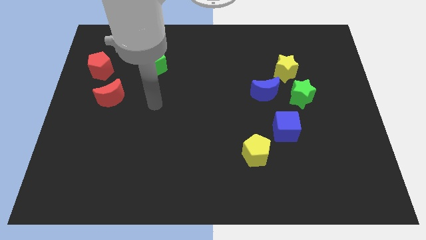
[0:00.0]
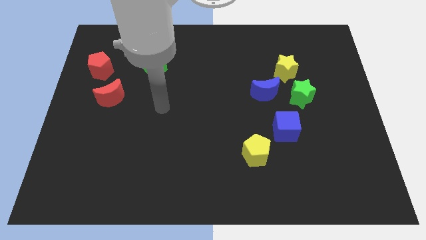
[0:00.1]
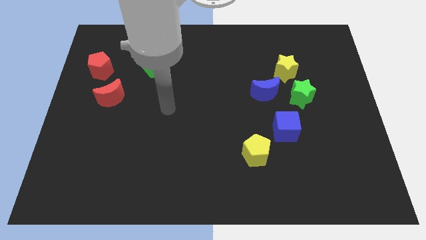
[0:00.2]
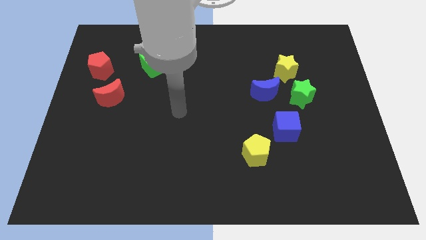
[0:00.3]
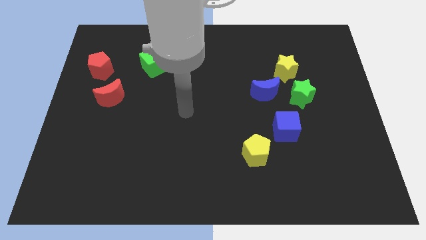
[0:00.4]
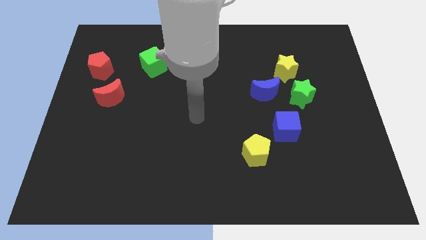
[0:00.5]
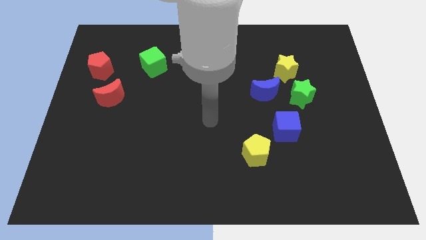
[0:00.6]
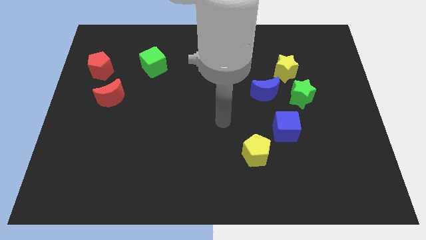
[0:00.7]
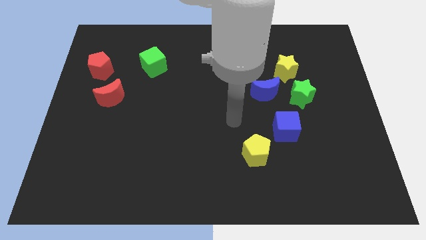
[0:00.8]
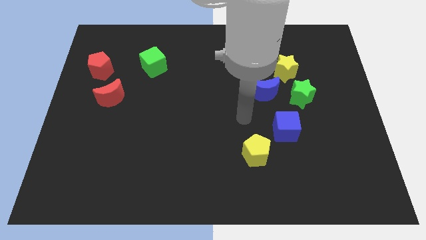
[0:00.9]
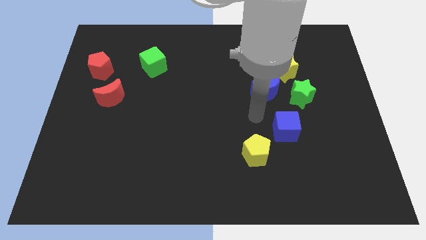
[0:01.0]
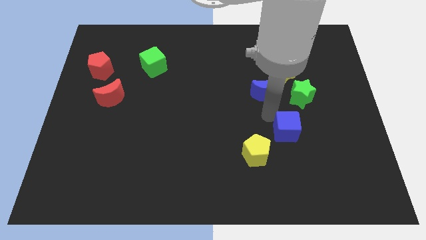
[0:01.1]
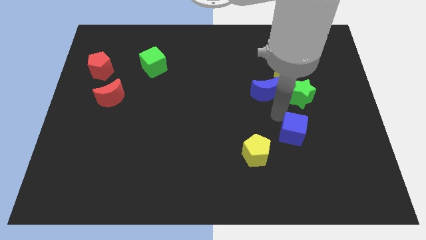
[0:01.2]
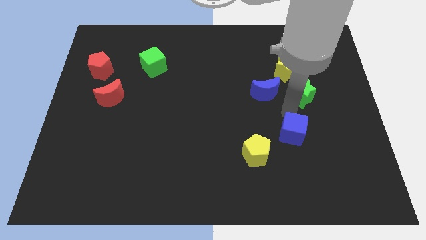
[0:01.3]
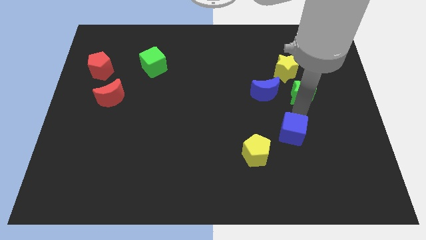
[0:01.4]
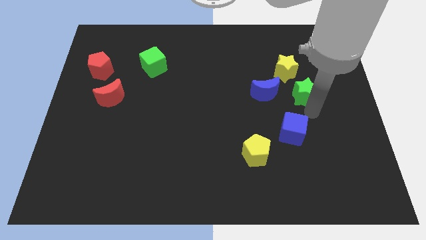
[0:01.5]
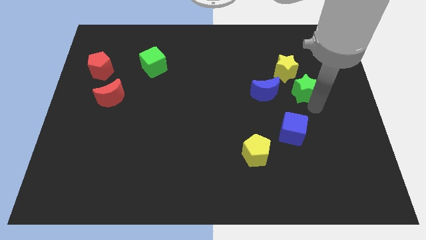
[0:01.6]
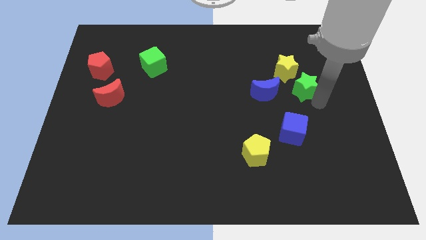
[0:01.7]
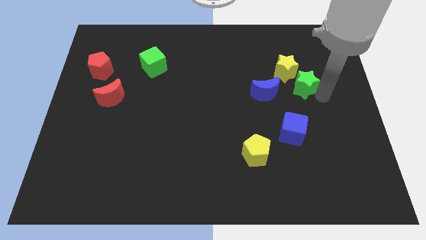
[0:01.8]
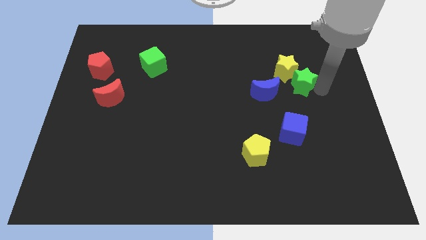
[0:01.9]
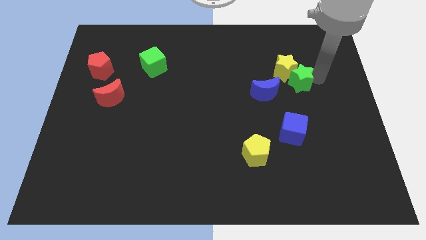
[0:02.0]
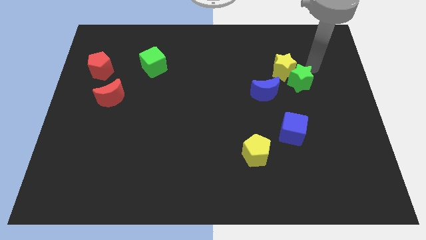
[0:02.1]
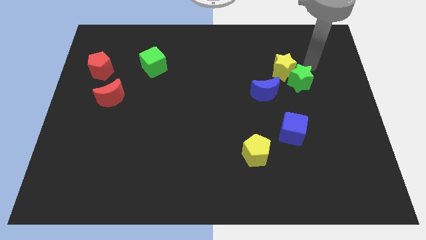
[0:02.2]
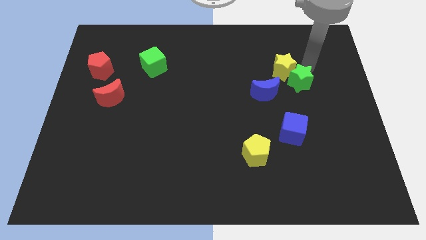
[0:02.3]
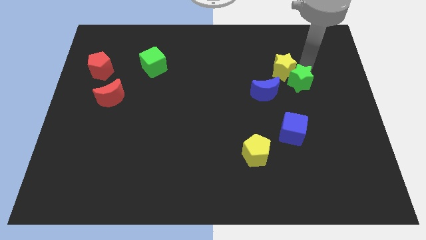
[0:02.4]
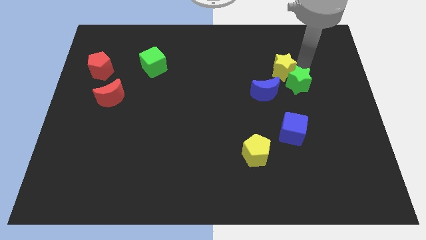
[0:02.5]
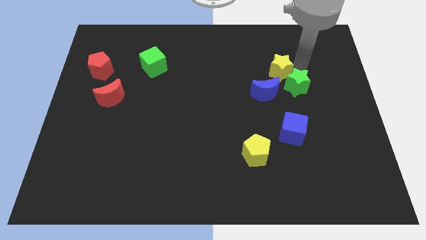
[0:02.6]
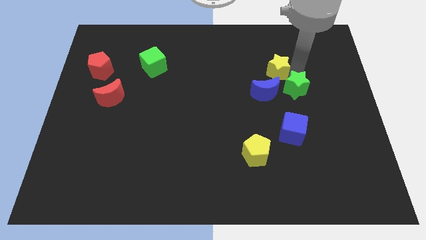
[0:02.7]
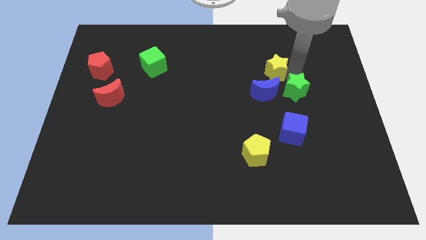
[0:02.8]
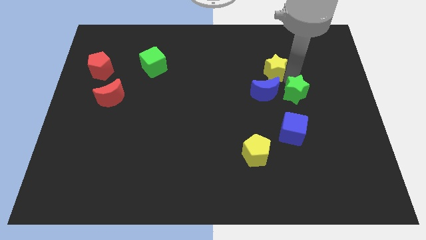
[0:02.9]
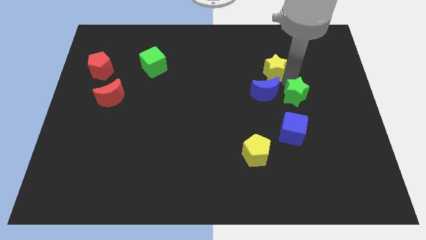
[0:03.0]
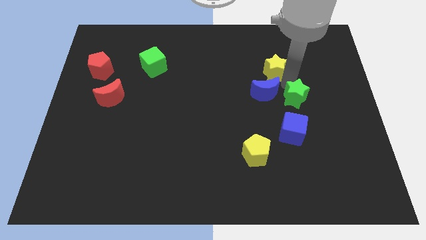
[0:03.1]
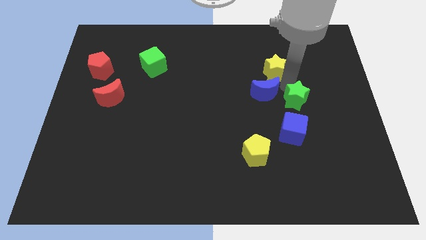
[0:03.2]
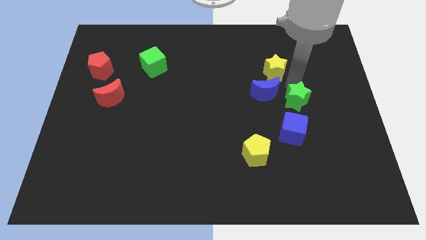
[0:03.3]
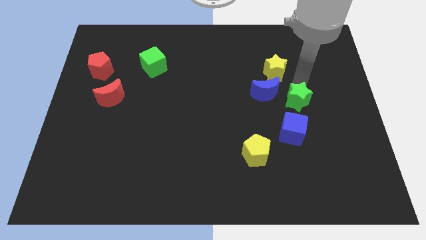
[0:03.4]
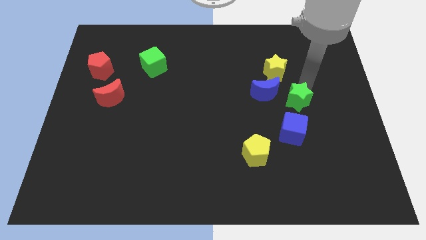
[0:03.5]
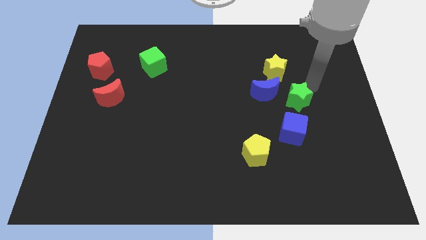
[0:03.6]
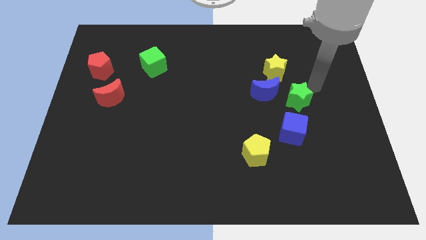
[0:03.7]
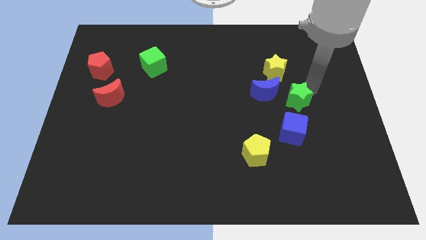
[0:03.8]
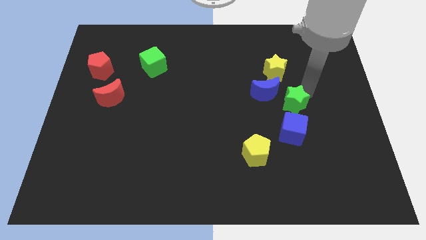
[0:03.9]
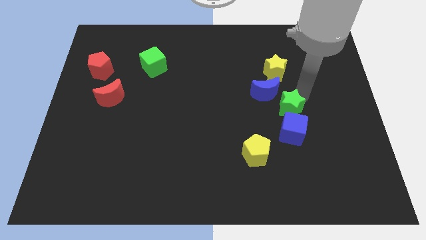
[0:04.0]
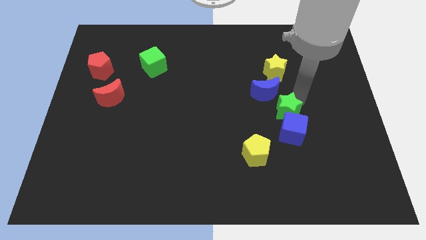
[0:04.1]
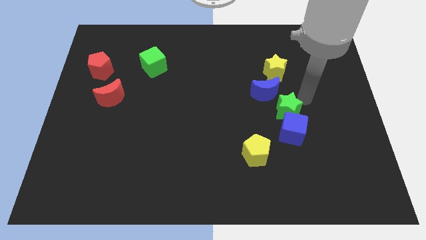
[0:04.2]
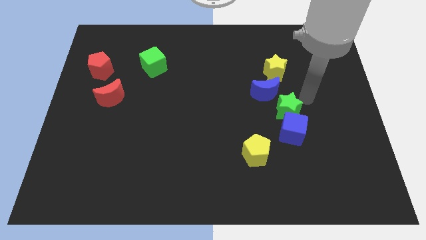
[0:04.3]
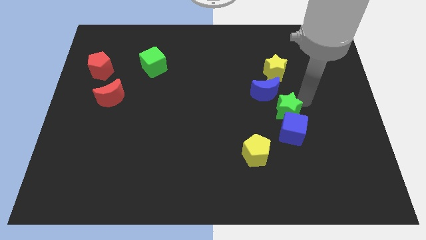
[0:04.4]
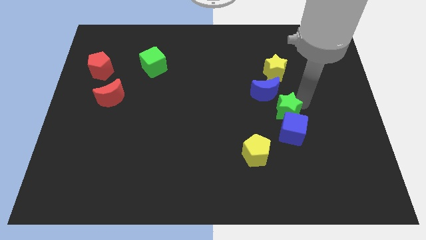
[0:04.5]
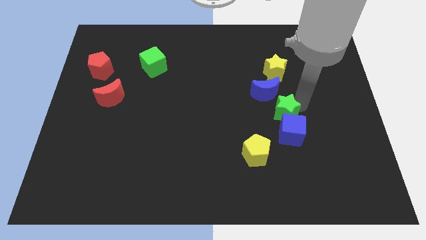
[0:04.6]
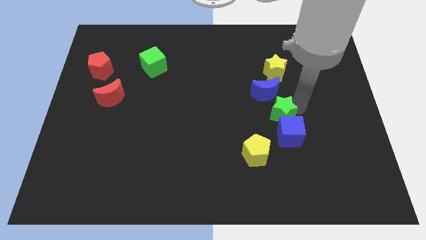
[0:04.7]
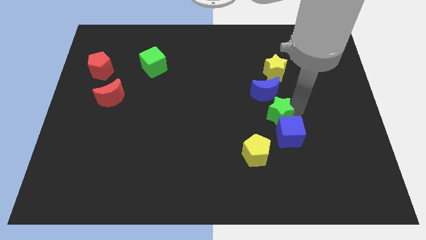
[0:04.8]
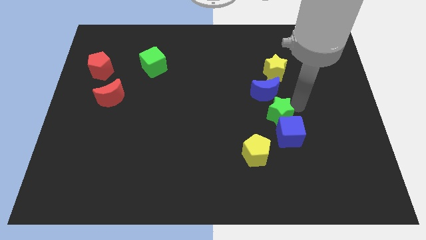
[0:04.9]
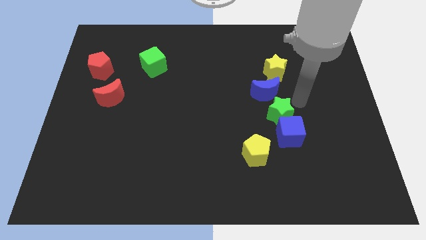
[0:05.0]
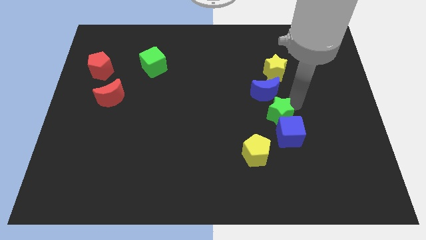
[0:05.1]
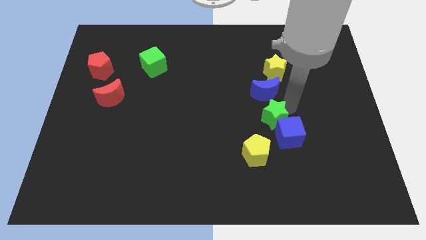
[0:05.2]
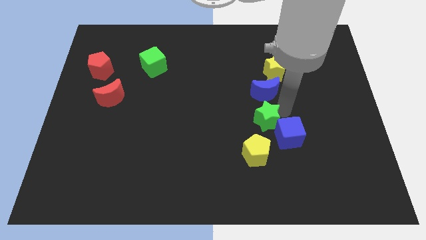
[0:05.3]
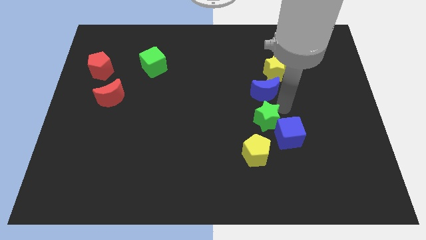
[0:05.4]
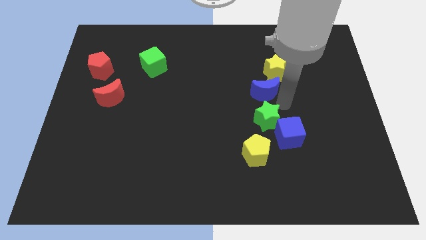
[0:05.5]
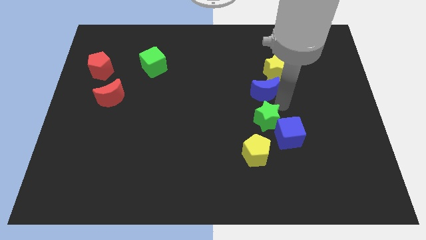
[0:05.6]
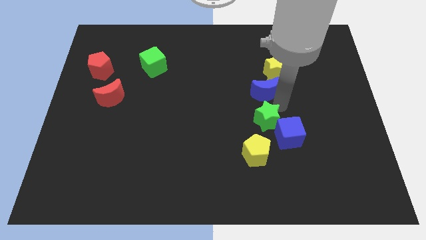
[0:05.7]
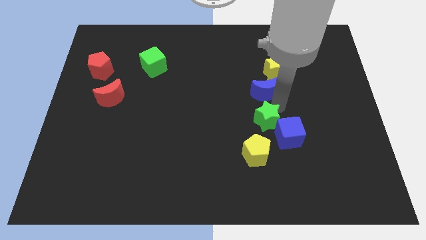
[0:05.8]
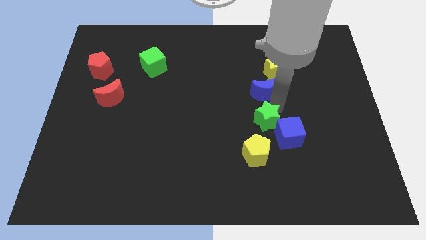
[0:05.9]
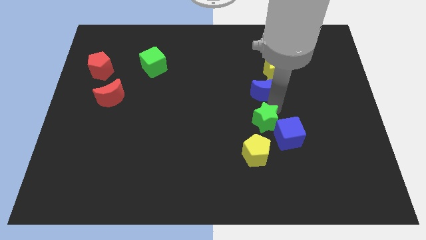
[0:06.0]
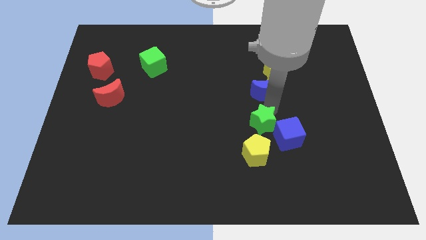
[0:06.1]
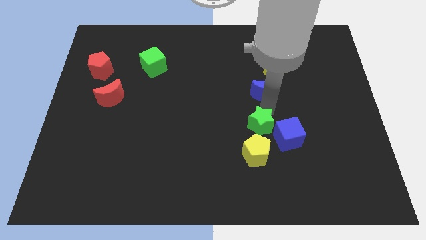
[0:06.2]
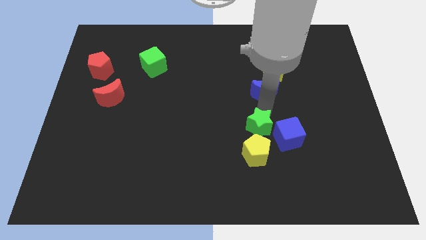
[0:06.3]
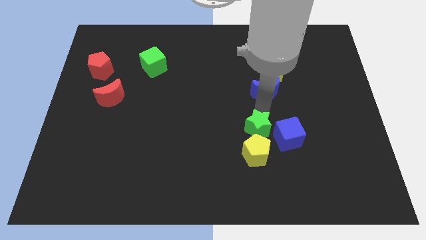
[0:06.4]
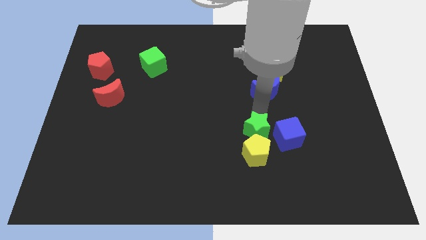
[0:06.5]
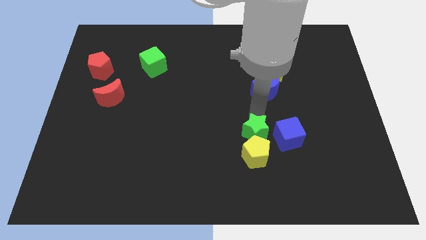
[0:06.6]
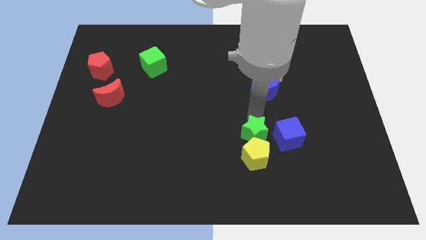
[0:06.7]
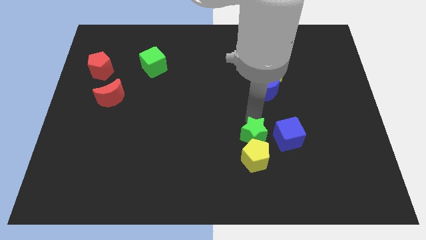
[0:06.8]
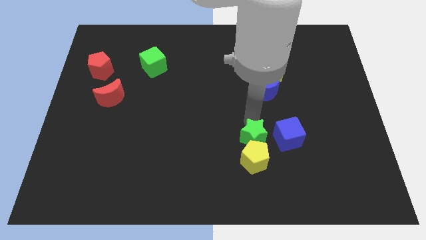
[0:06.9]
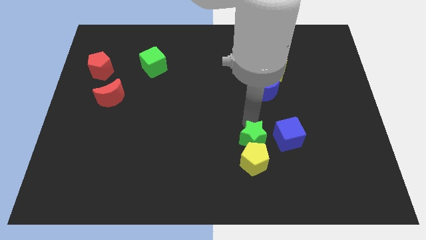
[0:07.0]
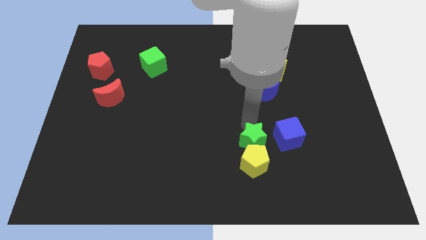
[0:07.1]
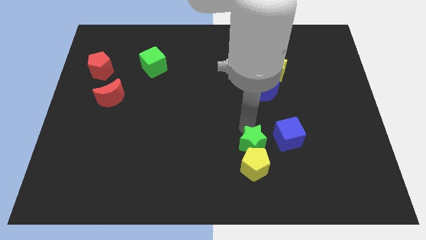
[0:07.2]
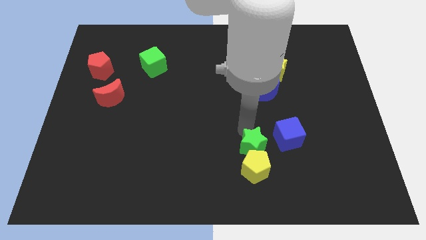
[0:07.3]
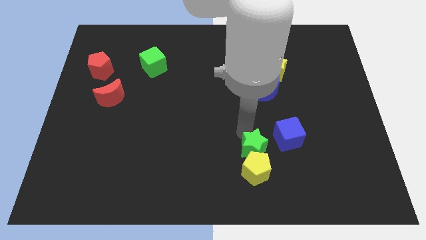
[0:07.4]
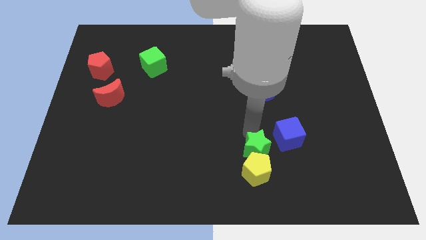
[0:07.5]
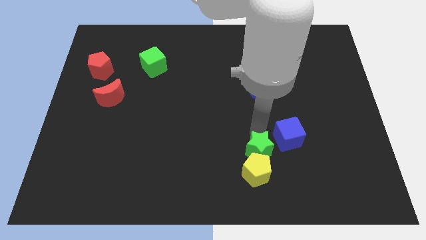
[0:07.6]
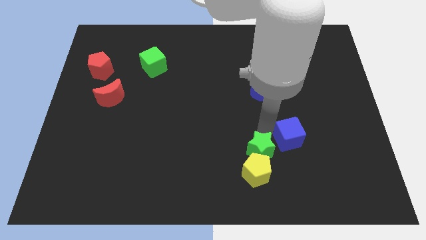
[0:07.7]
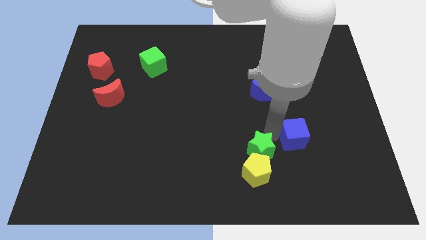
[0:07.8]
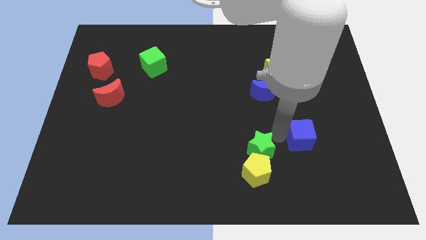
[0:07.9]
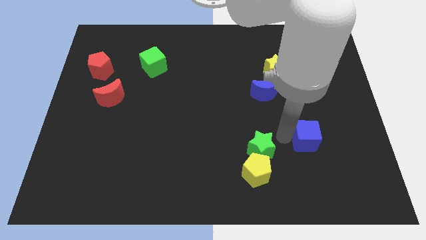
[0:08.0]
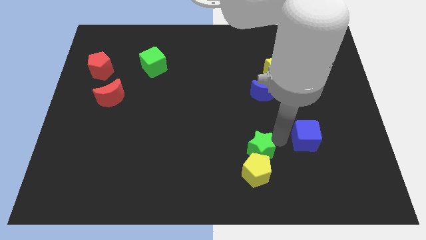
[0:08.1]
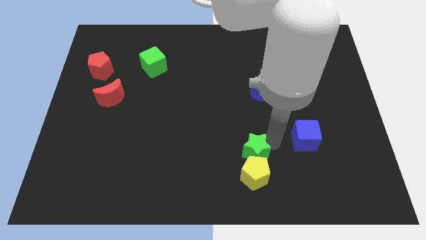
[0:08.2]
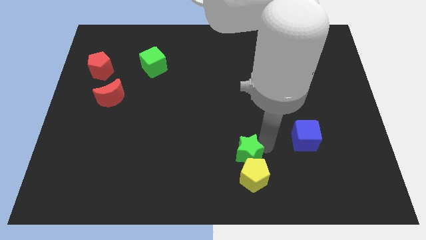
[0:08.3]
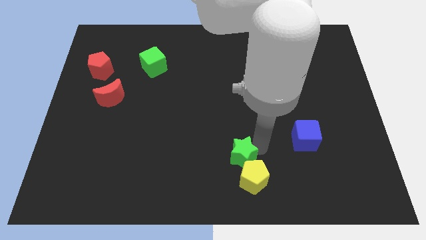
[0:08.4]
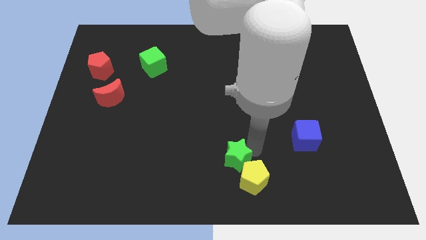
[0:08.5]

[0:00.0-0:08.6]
put the green star to the bottom side
